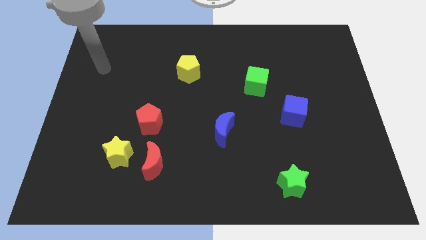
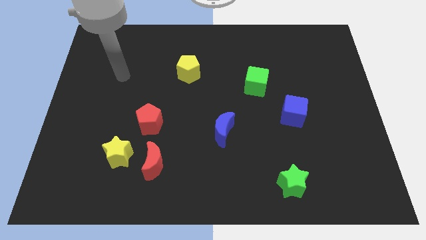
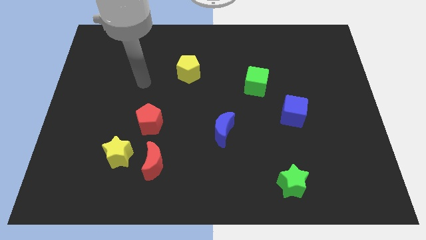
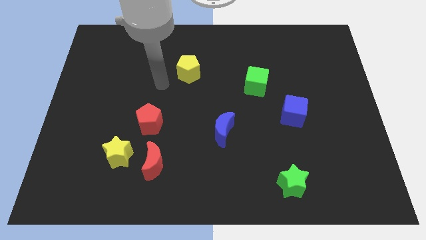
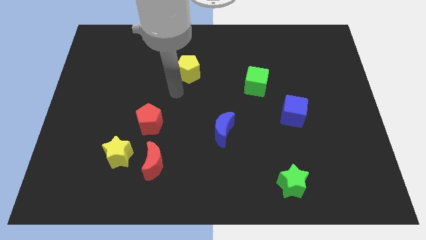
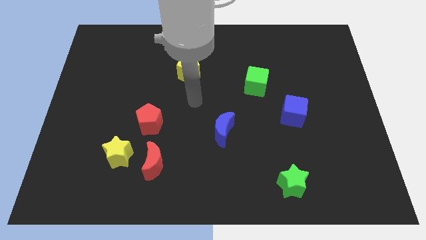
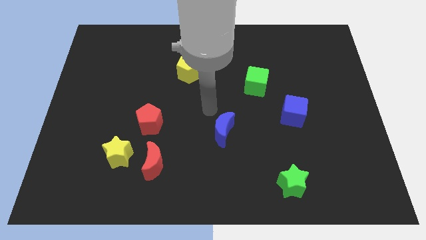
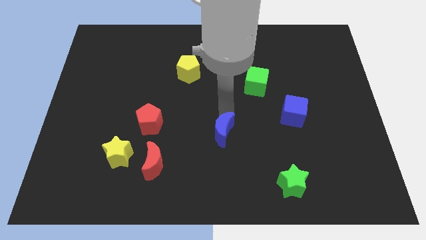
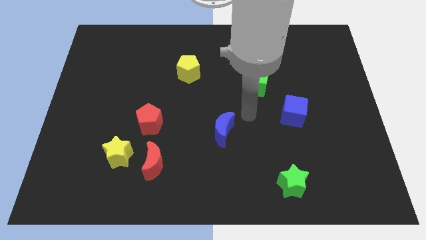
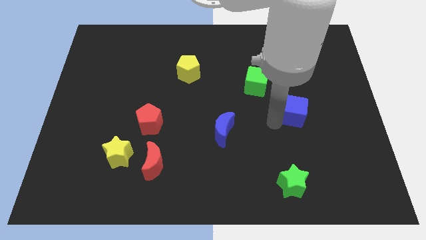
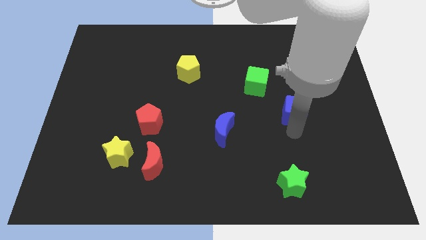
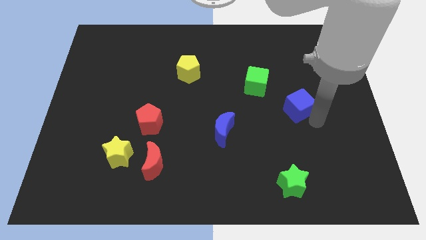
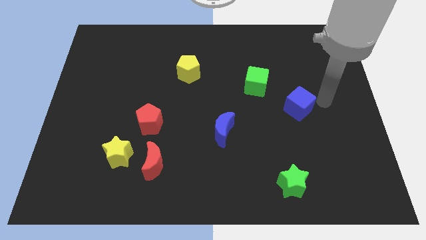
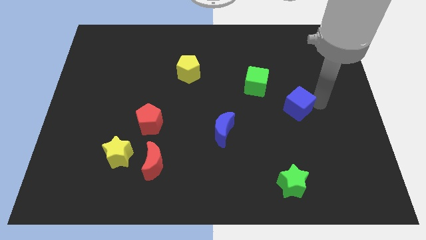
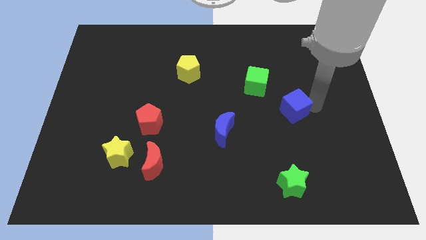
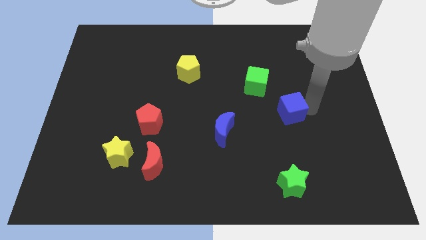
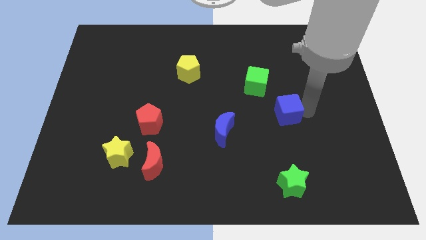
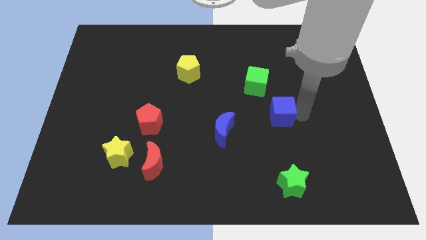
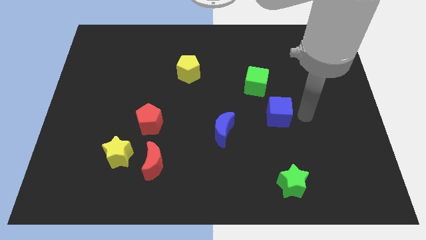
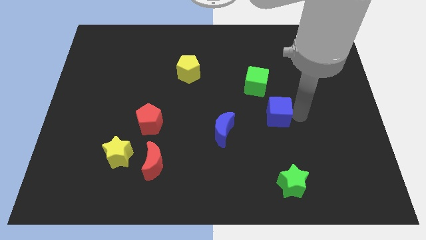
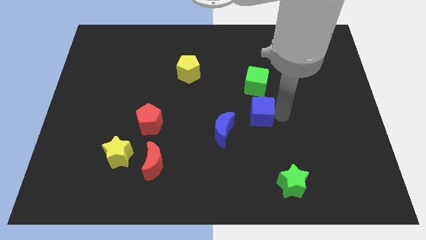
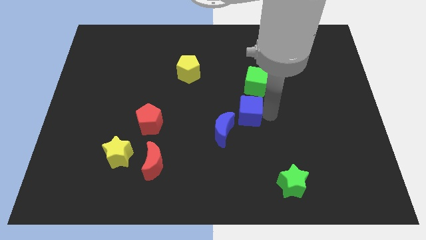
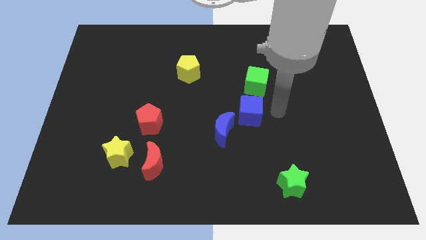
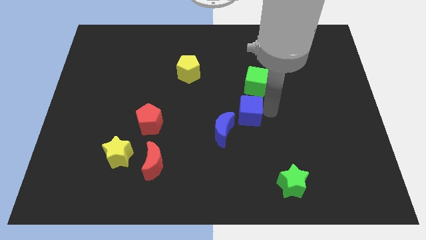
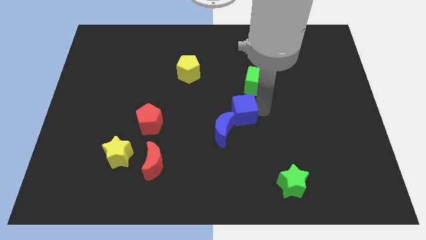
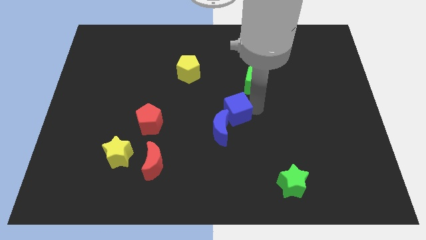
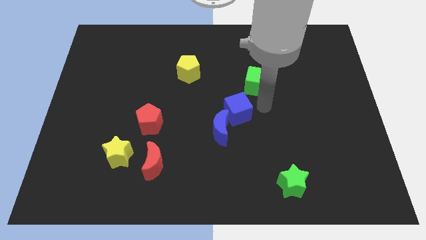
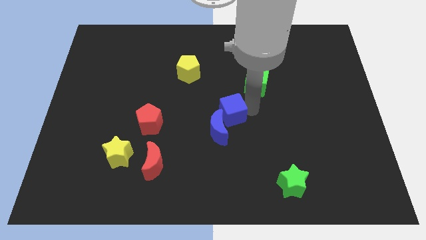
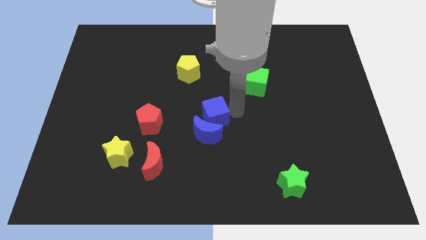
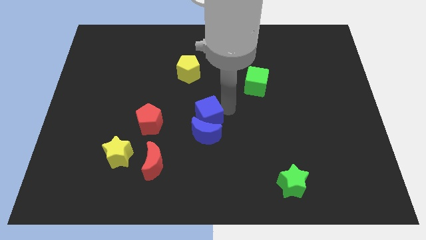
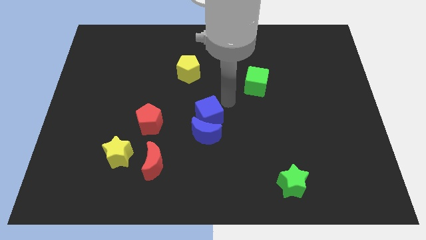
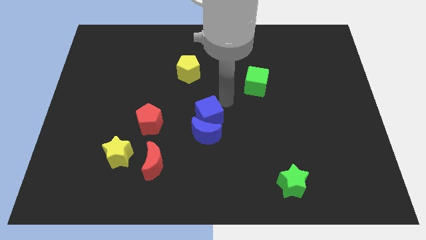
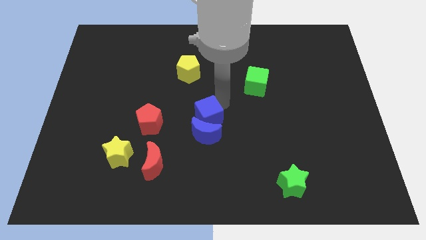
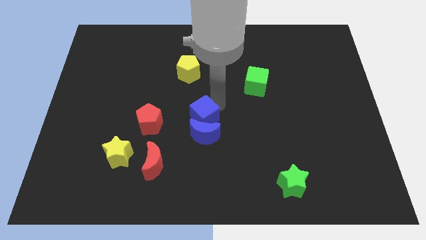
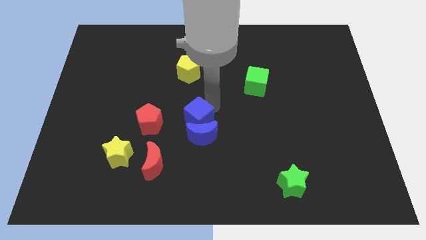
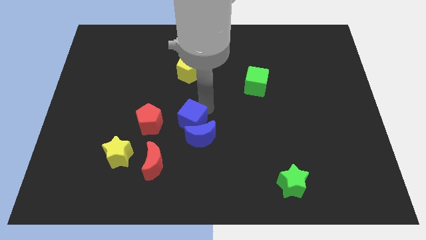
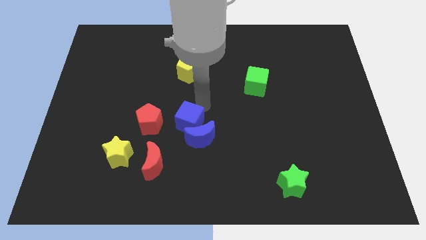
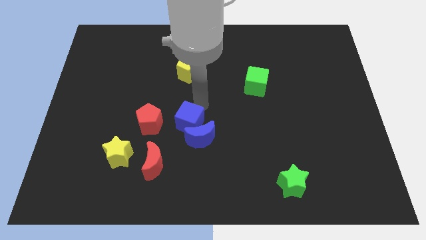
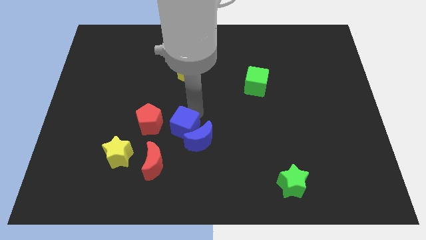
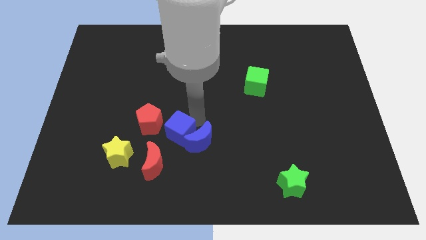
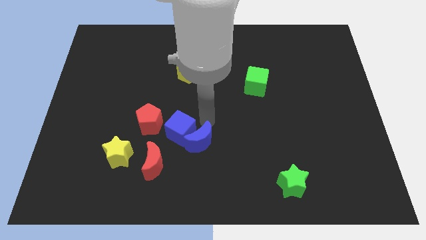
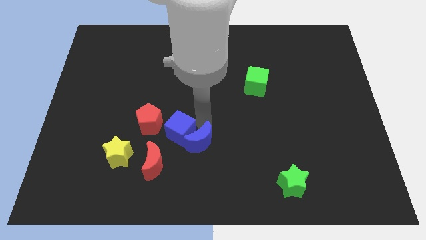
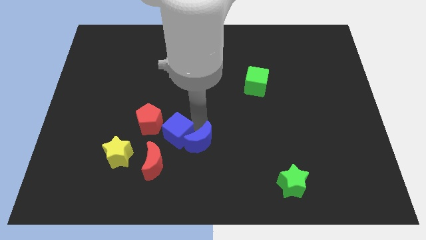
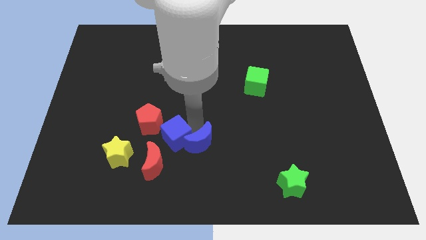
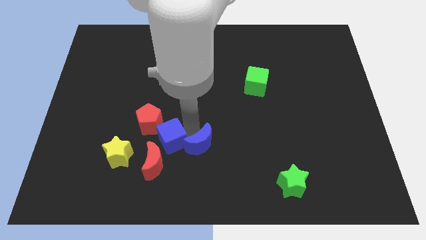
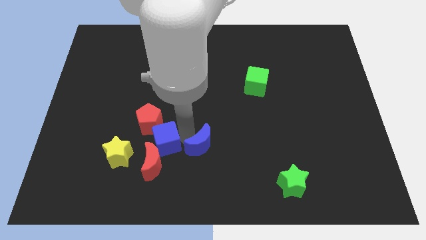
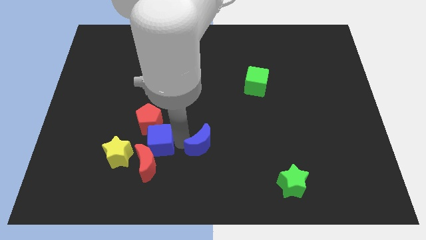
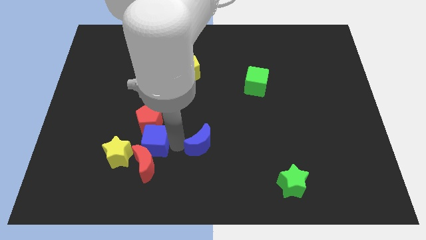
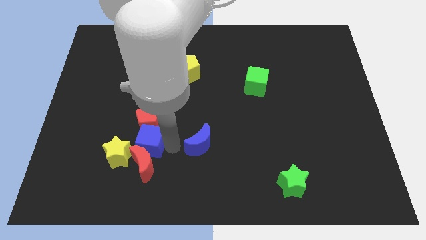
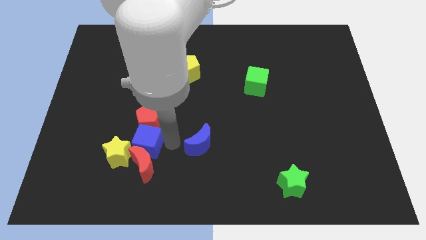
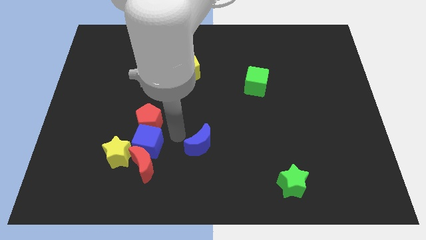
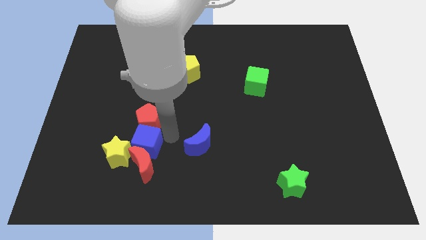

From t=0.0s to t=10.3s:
slide the blue cube towards the yellow star

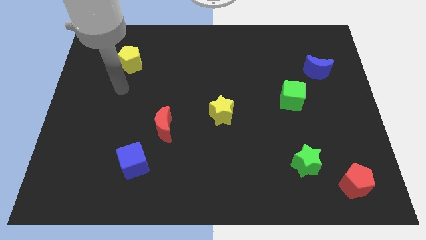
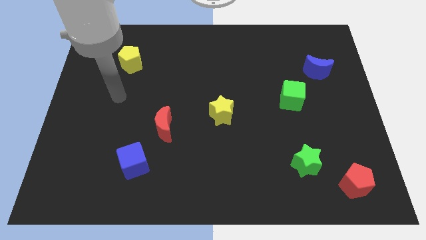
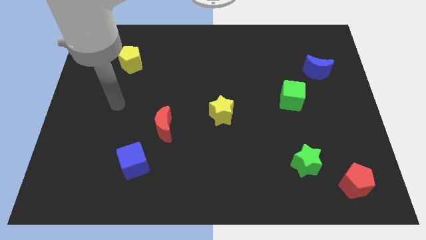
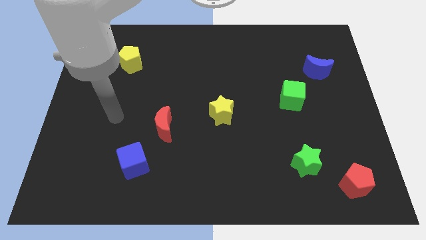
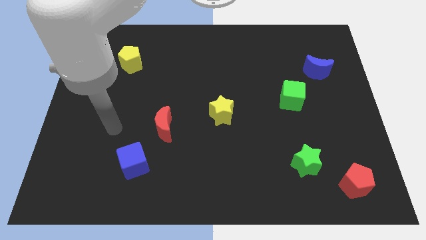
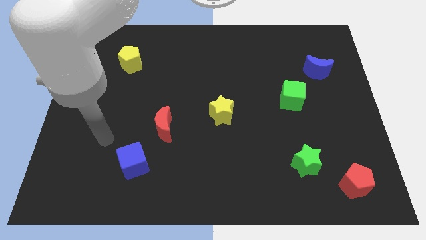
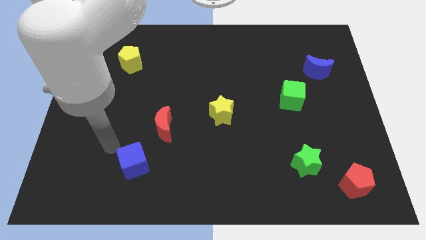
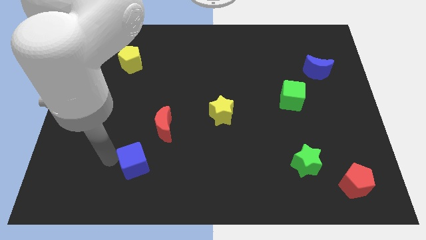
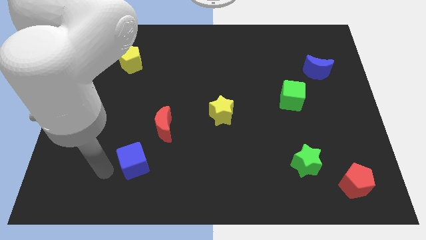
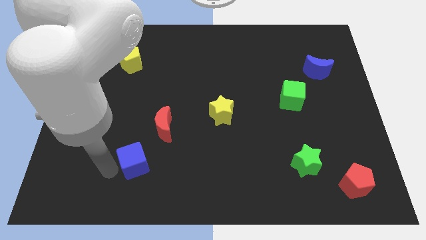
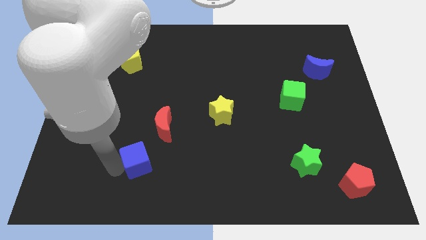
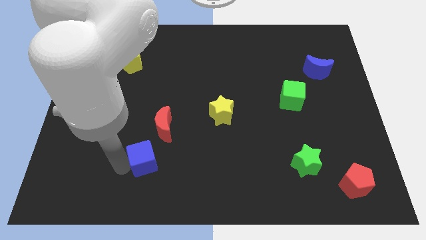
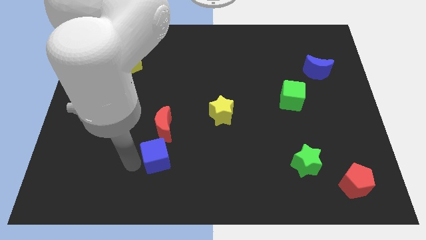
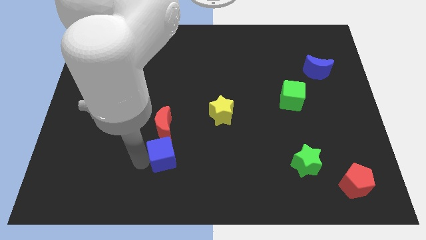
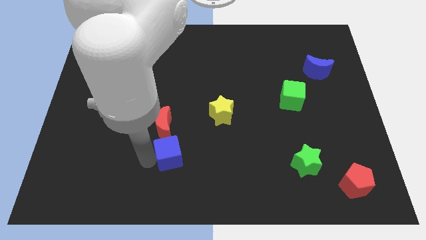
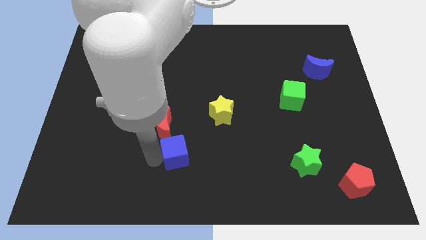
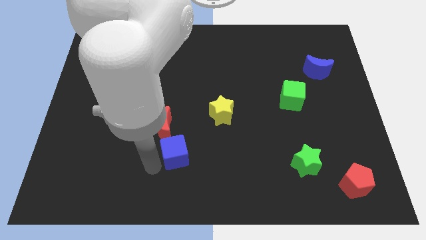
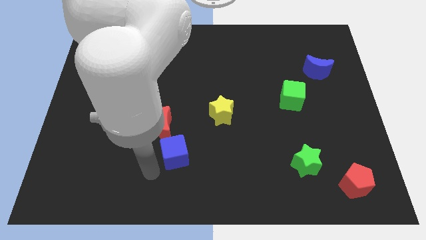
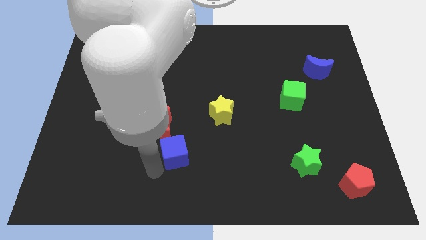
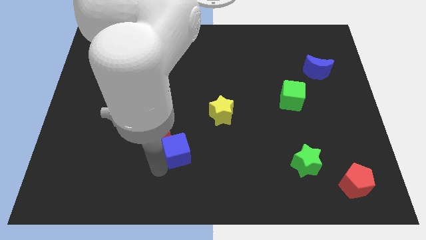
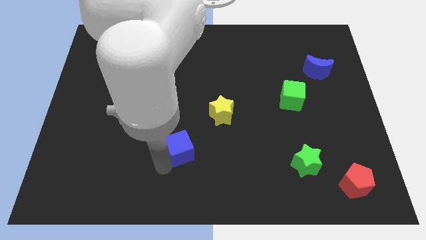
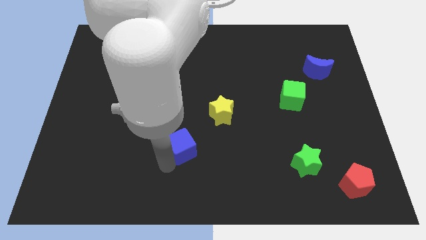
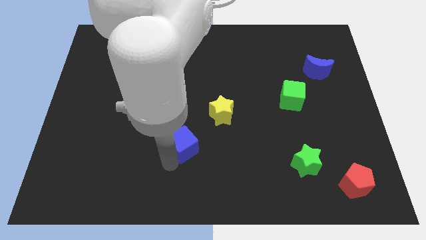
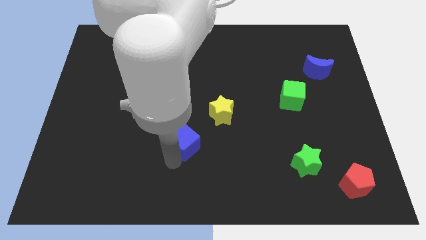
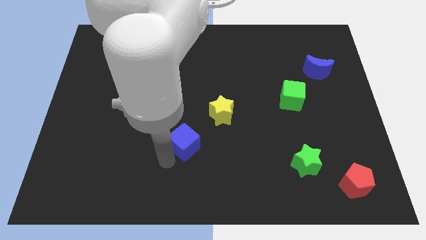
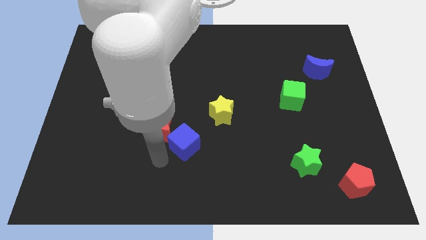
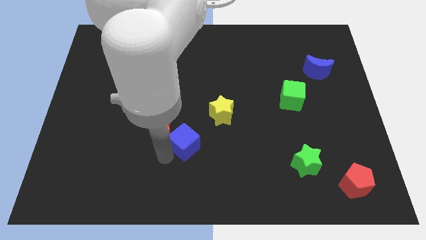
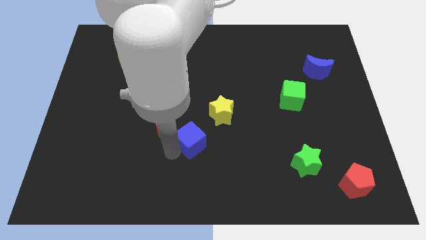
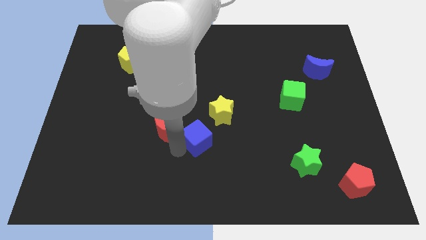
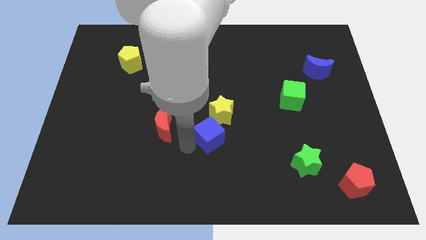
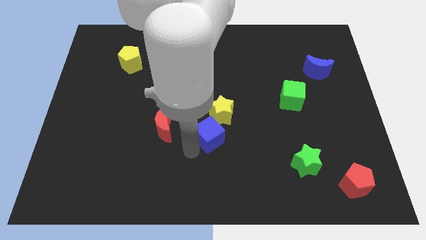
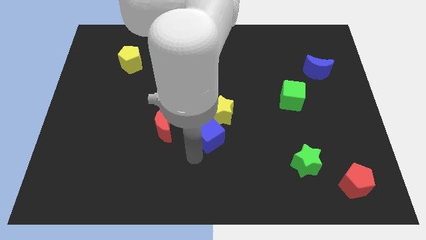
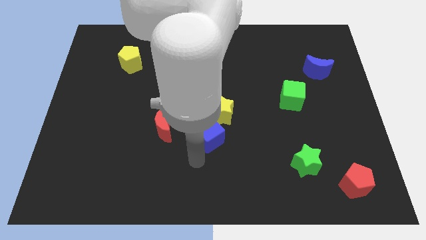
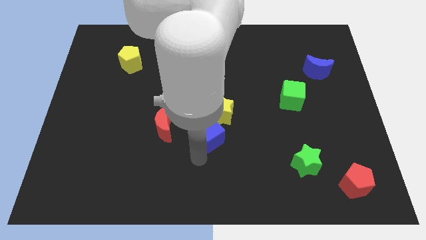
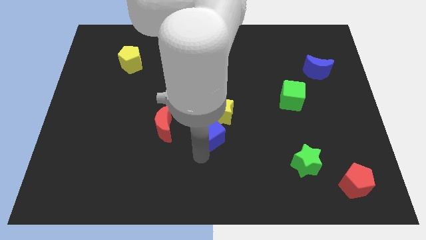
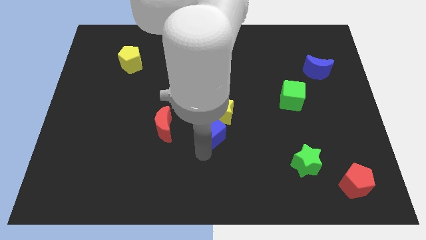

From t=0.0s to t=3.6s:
put the blue cube close to the yellow star
